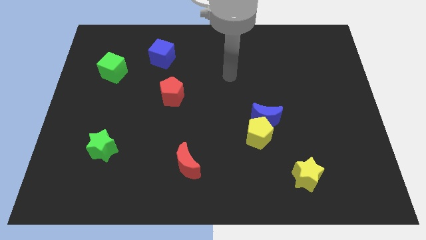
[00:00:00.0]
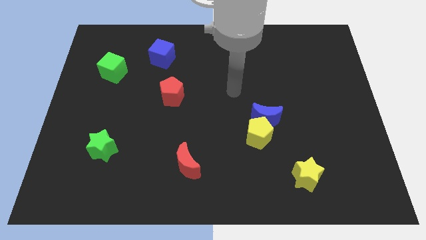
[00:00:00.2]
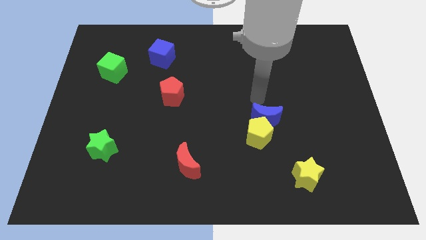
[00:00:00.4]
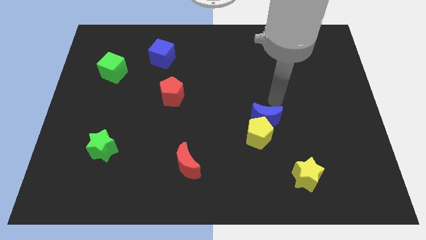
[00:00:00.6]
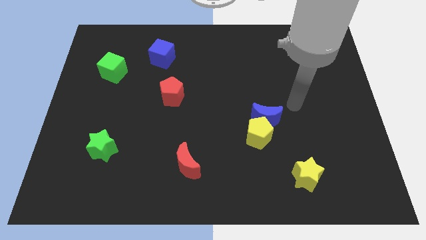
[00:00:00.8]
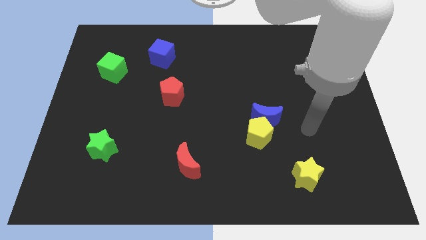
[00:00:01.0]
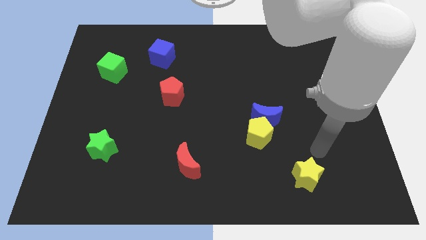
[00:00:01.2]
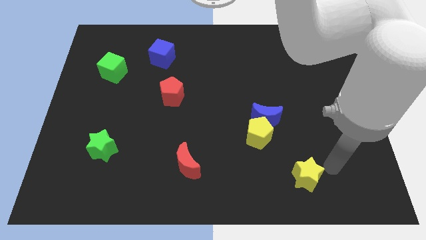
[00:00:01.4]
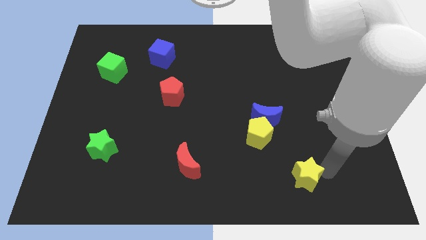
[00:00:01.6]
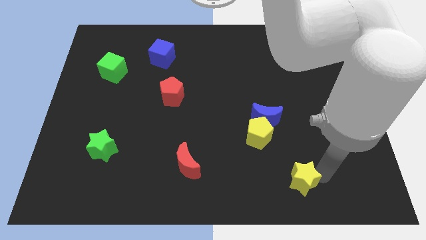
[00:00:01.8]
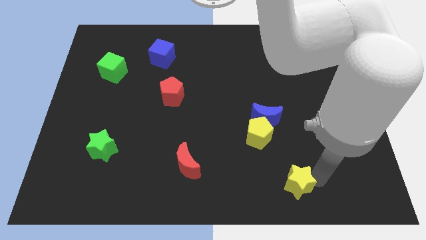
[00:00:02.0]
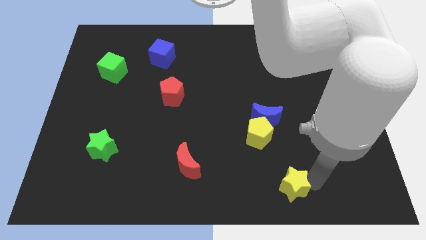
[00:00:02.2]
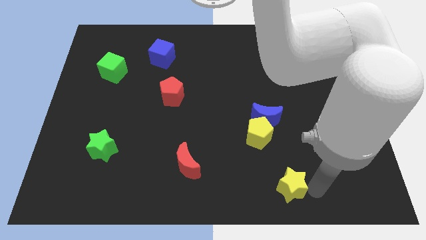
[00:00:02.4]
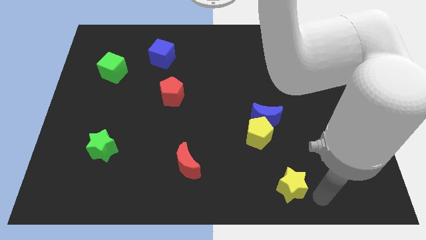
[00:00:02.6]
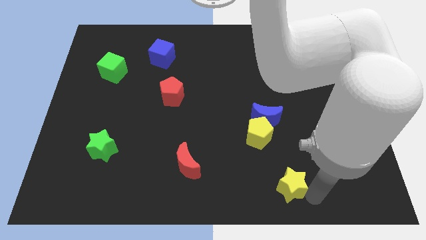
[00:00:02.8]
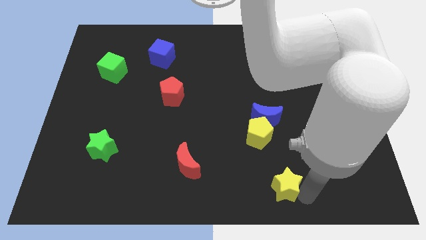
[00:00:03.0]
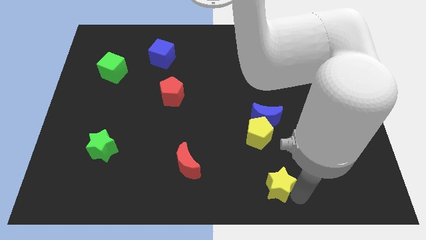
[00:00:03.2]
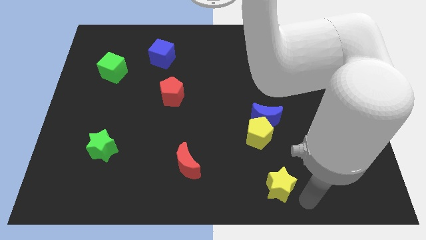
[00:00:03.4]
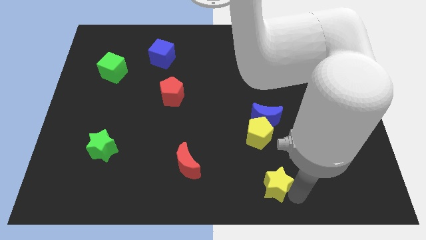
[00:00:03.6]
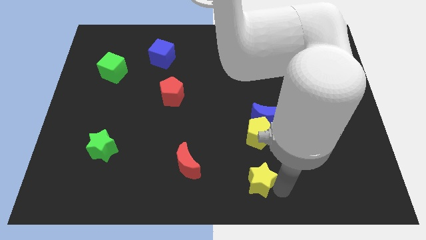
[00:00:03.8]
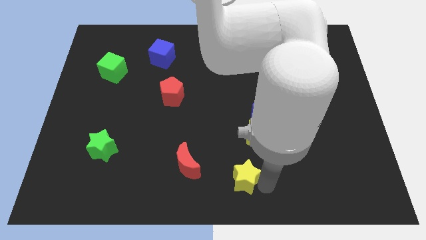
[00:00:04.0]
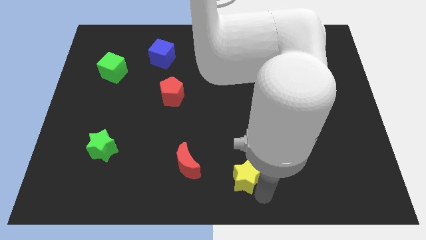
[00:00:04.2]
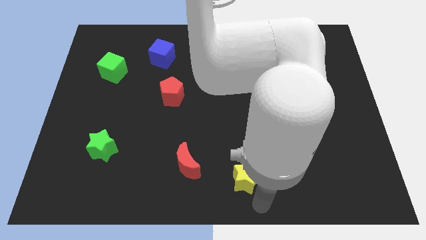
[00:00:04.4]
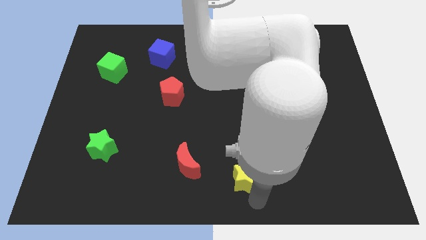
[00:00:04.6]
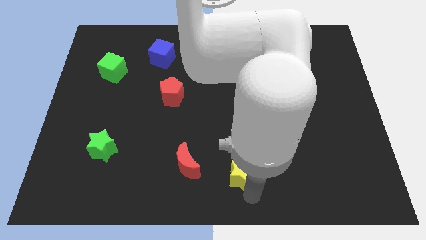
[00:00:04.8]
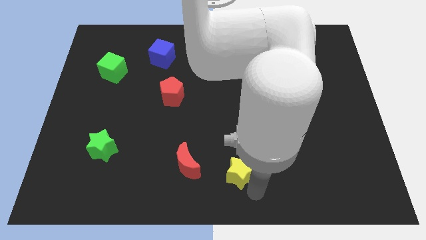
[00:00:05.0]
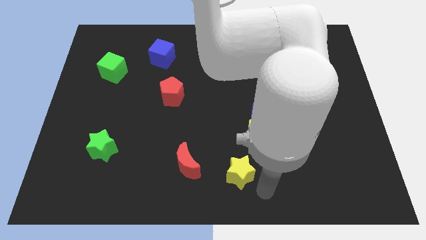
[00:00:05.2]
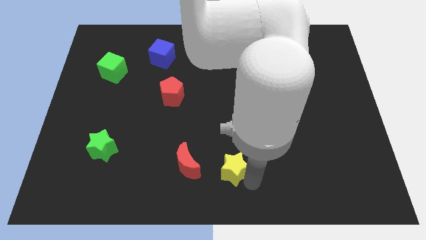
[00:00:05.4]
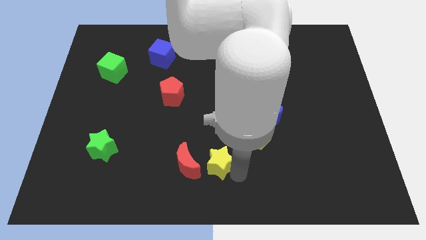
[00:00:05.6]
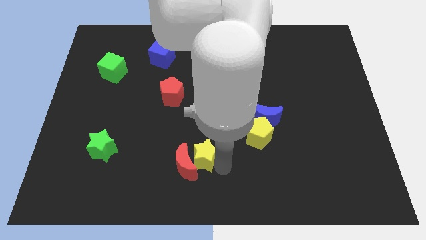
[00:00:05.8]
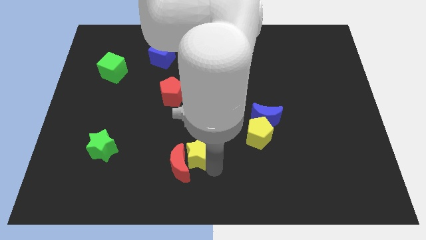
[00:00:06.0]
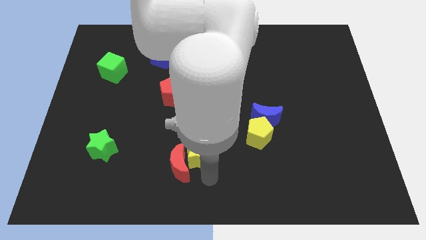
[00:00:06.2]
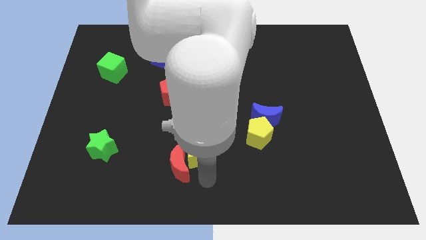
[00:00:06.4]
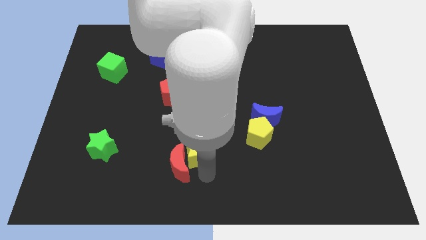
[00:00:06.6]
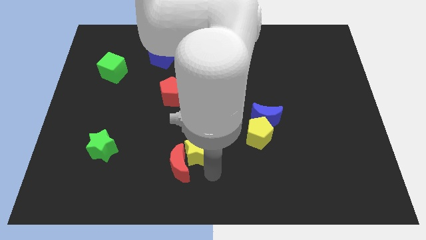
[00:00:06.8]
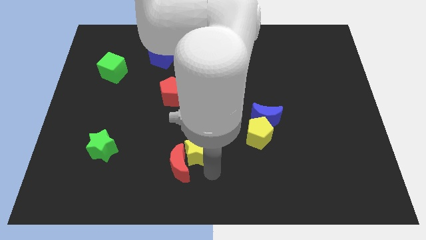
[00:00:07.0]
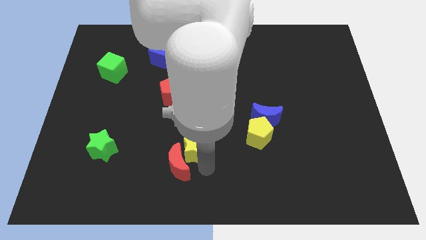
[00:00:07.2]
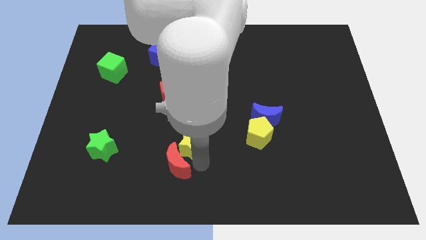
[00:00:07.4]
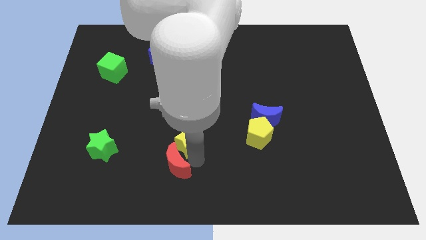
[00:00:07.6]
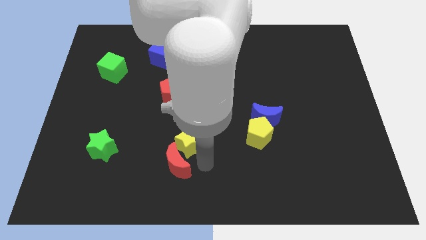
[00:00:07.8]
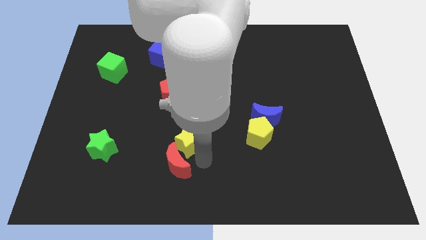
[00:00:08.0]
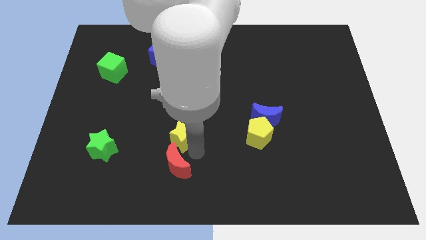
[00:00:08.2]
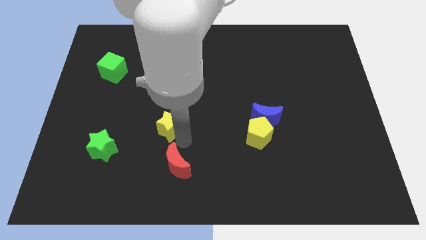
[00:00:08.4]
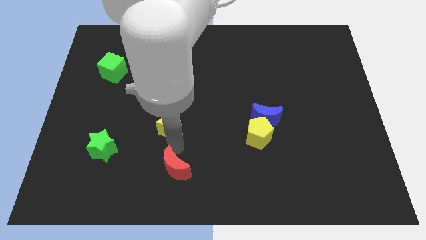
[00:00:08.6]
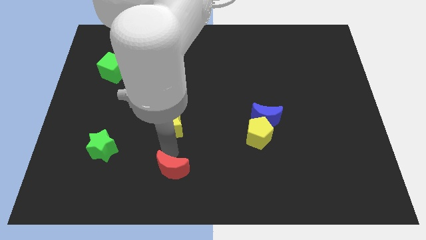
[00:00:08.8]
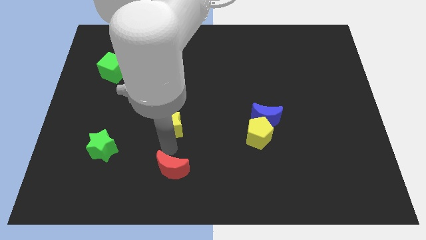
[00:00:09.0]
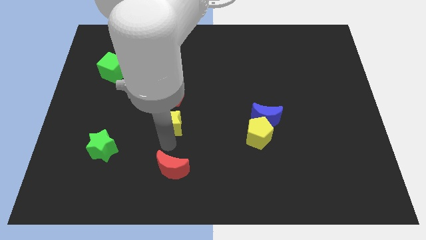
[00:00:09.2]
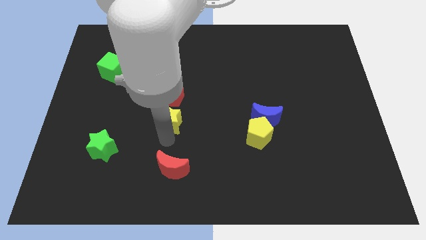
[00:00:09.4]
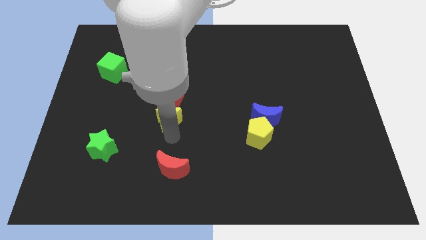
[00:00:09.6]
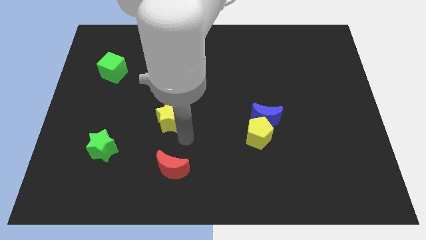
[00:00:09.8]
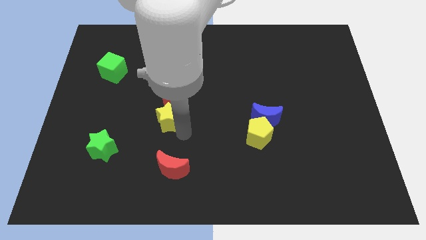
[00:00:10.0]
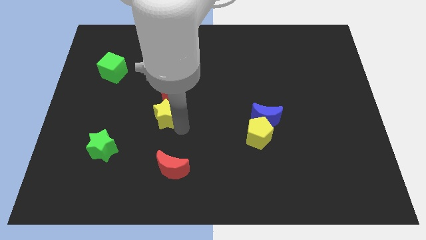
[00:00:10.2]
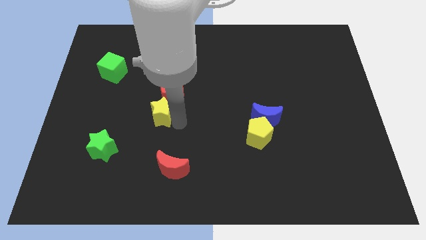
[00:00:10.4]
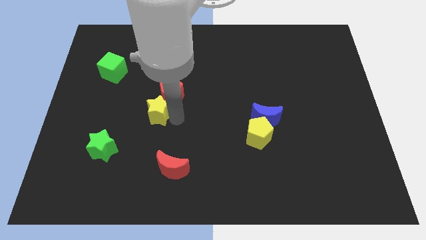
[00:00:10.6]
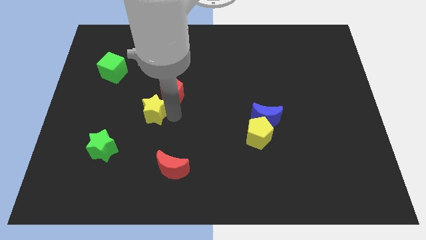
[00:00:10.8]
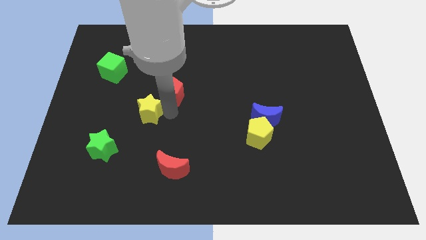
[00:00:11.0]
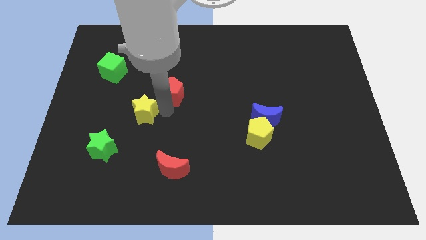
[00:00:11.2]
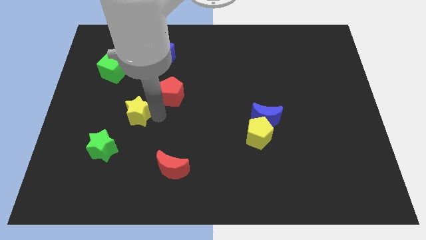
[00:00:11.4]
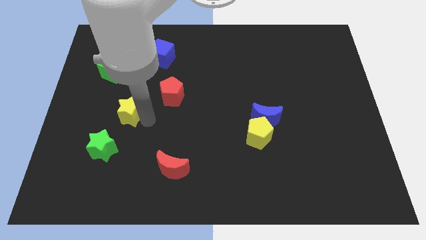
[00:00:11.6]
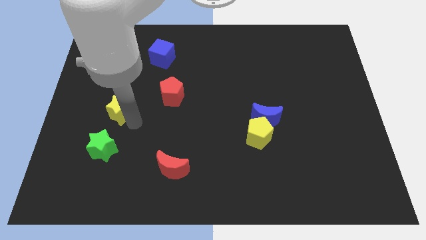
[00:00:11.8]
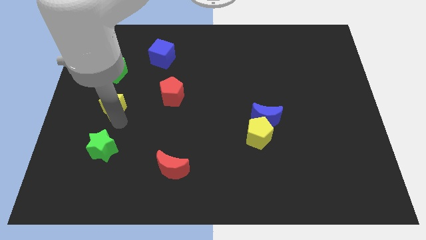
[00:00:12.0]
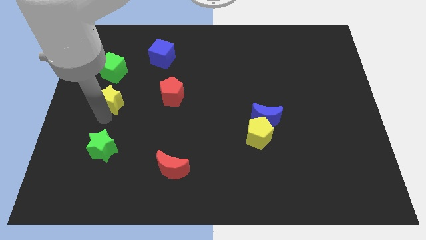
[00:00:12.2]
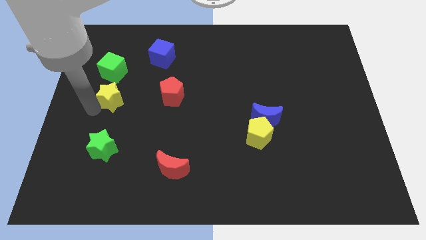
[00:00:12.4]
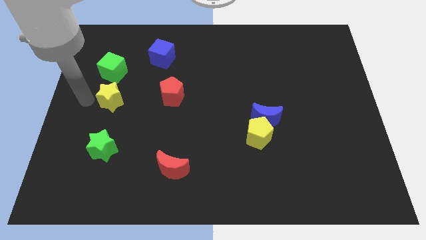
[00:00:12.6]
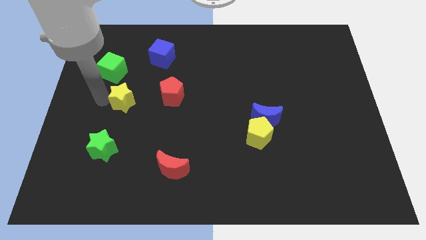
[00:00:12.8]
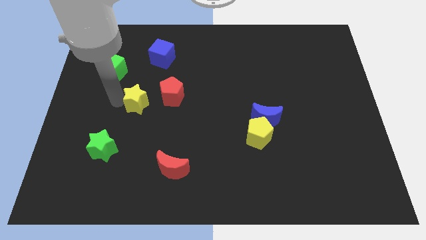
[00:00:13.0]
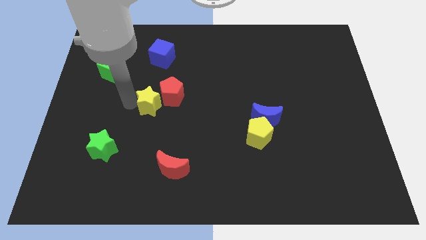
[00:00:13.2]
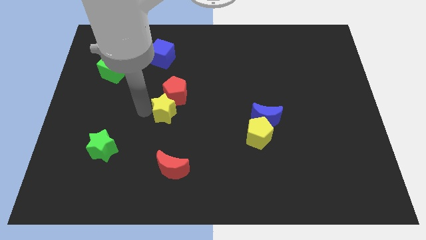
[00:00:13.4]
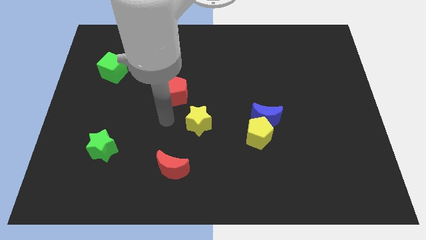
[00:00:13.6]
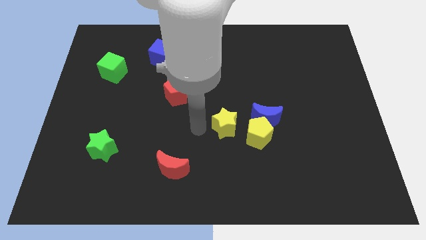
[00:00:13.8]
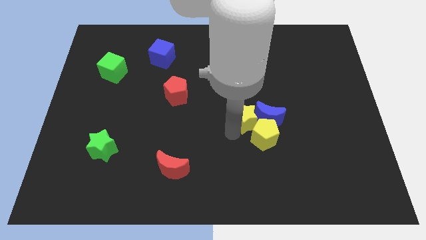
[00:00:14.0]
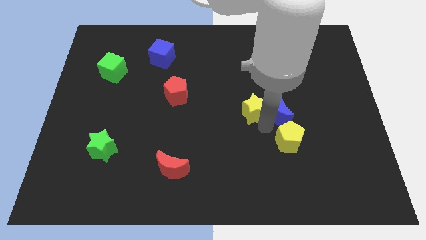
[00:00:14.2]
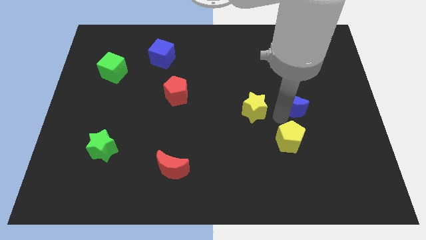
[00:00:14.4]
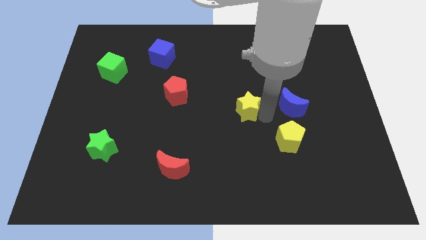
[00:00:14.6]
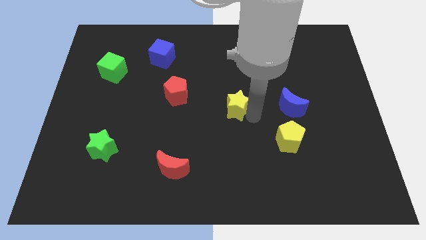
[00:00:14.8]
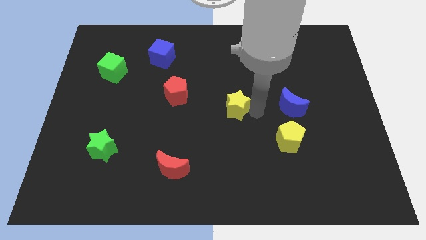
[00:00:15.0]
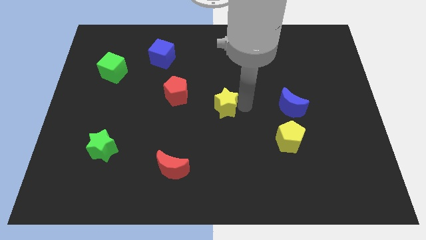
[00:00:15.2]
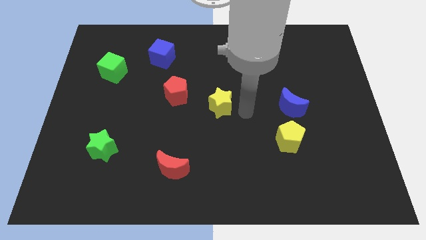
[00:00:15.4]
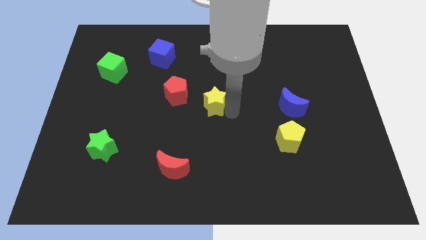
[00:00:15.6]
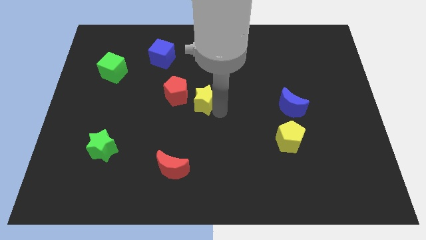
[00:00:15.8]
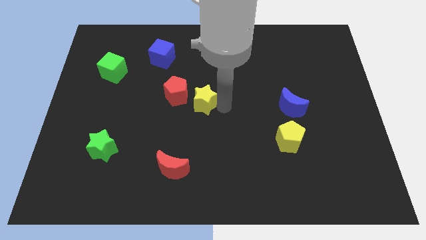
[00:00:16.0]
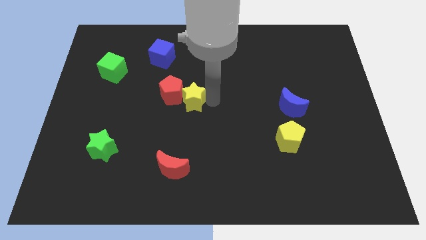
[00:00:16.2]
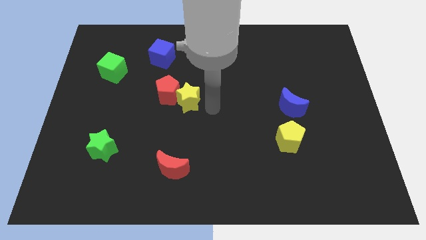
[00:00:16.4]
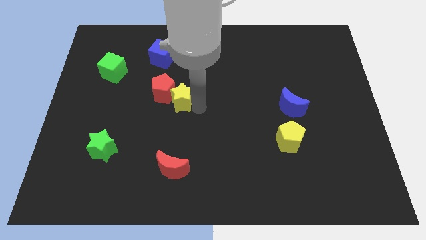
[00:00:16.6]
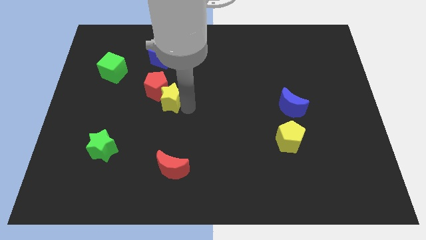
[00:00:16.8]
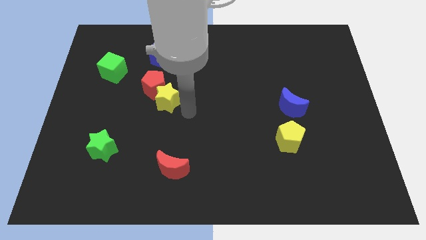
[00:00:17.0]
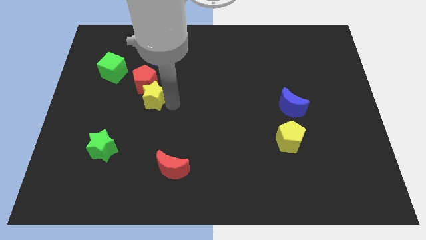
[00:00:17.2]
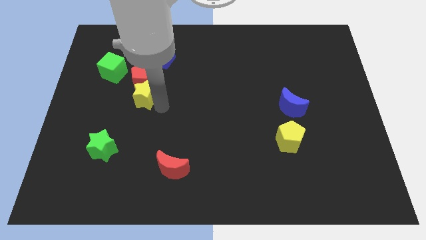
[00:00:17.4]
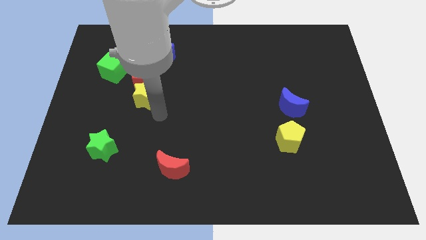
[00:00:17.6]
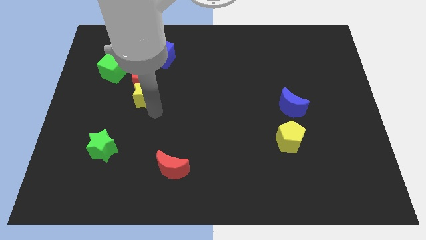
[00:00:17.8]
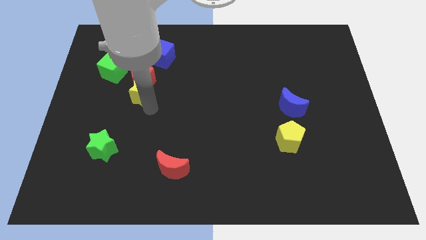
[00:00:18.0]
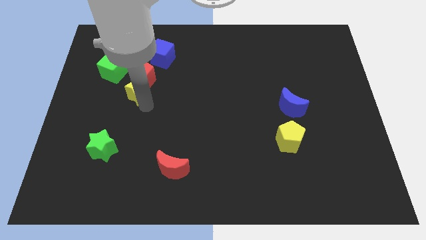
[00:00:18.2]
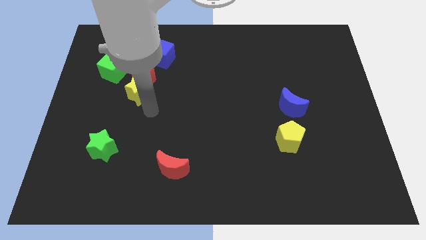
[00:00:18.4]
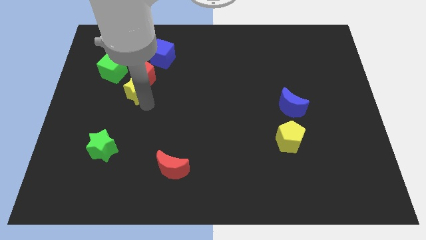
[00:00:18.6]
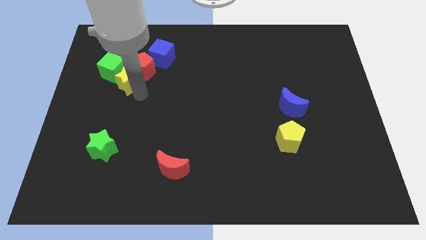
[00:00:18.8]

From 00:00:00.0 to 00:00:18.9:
slide the yellow star towards the green cube
